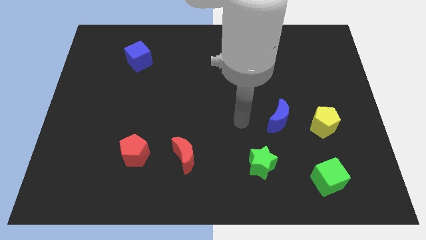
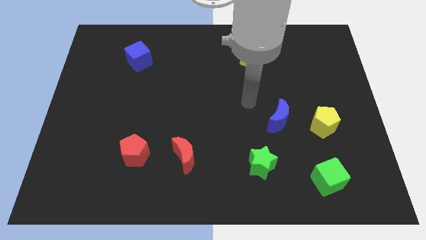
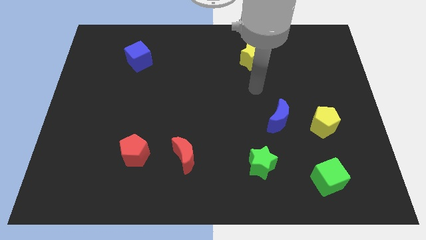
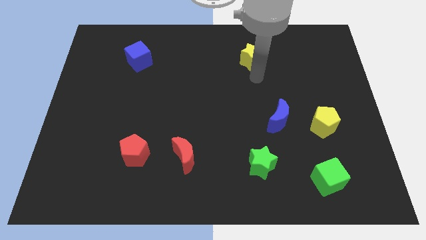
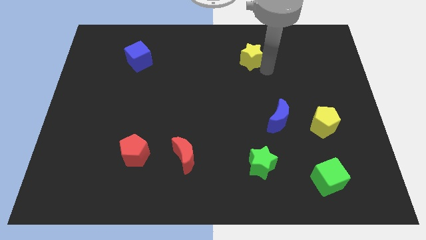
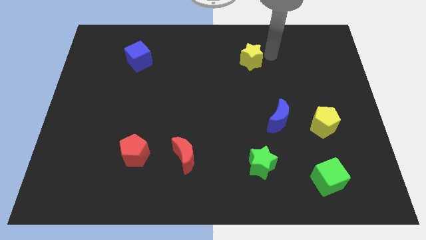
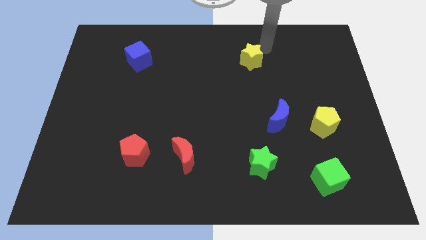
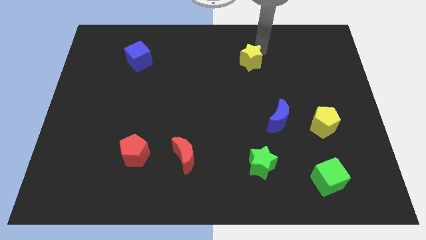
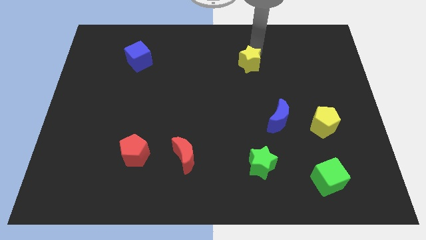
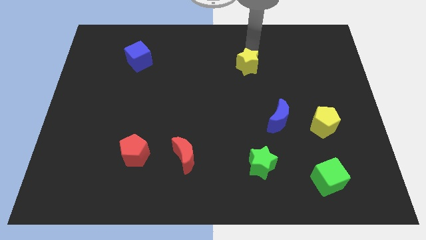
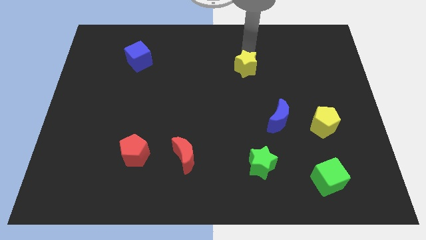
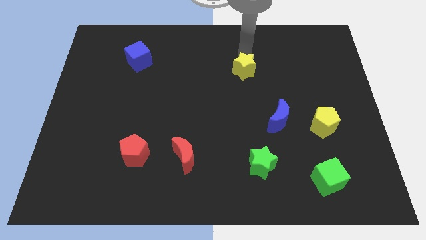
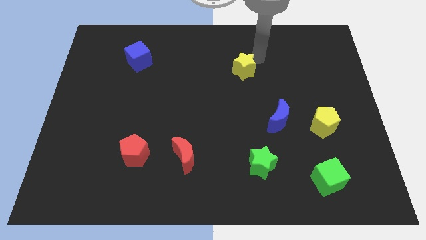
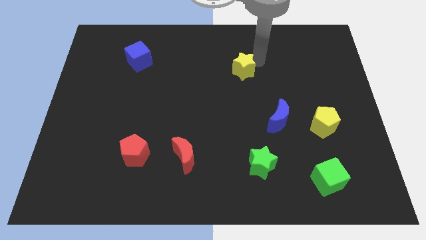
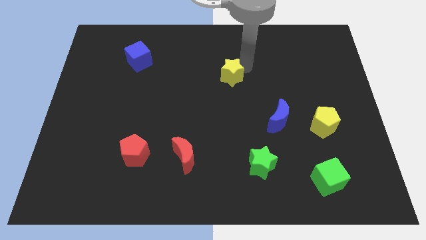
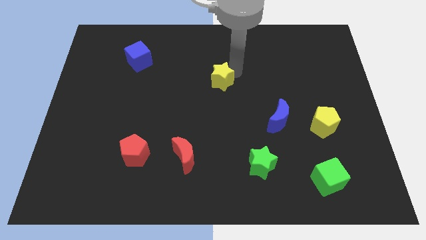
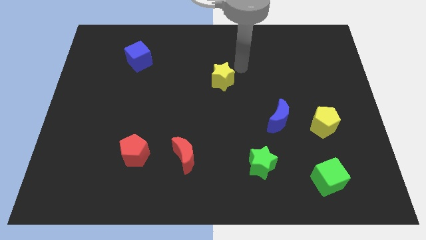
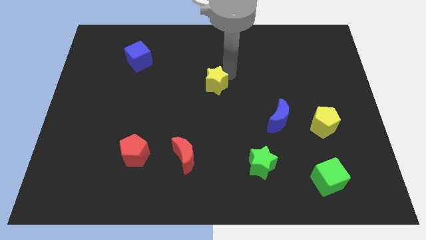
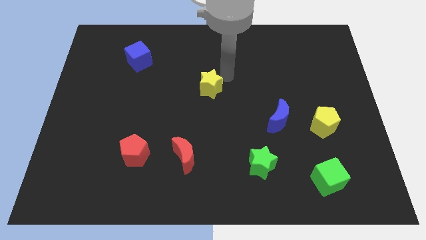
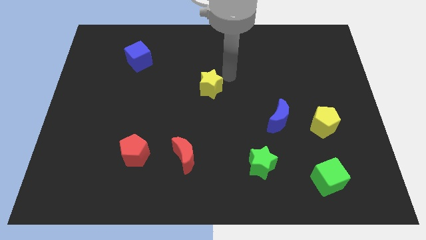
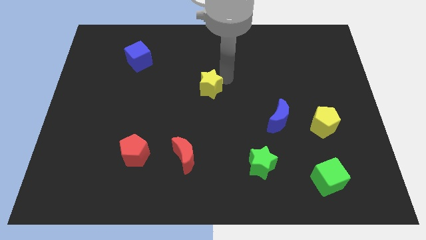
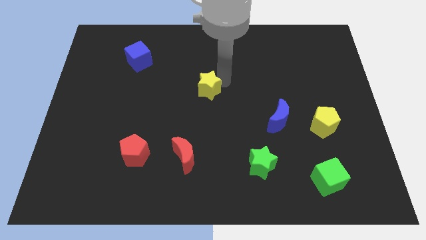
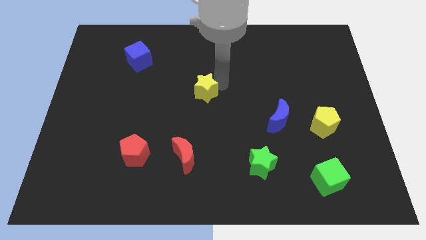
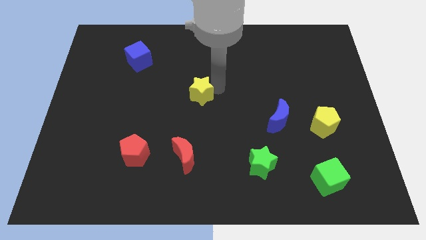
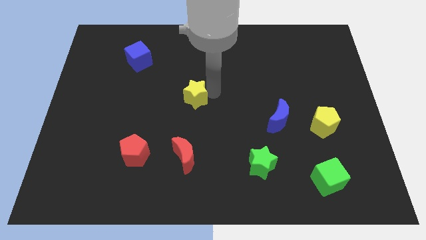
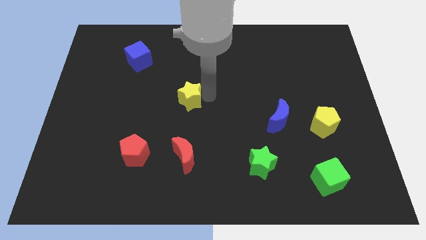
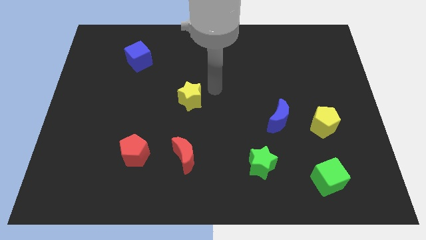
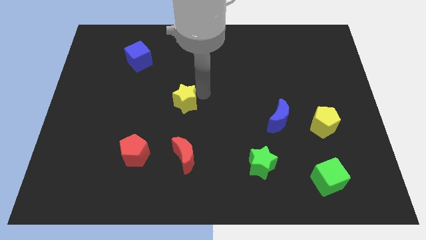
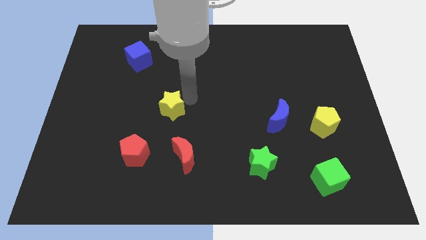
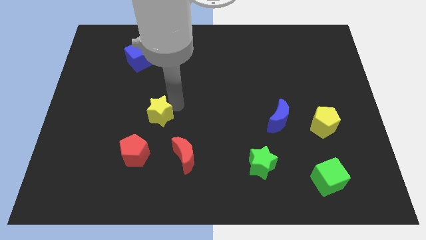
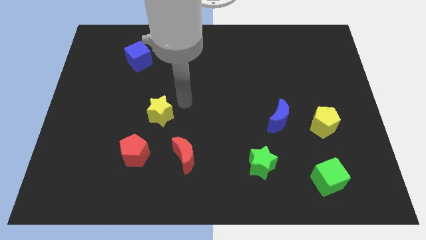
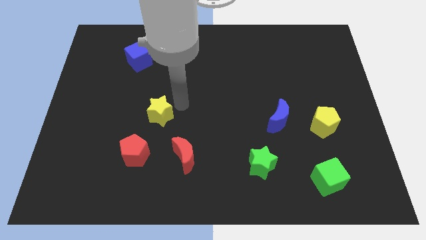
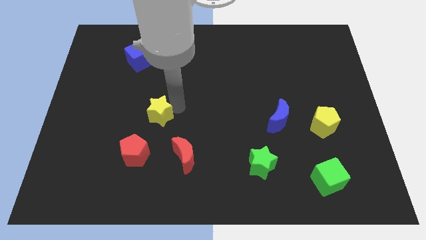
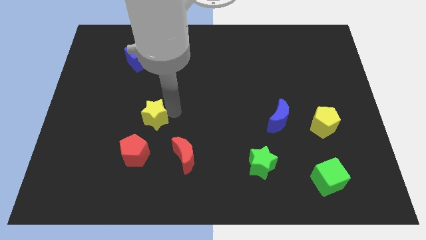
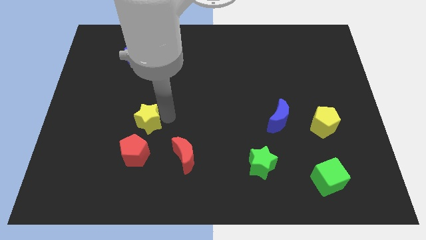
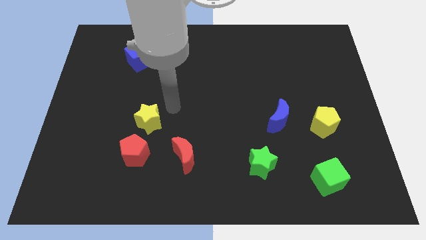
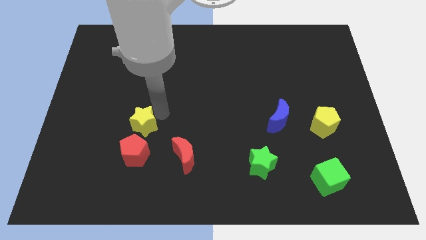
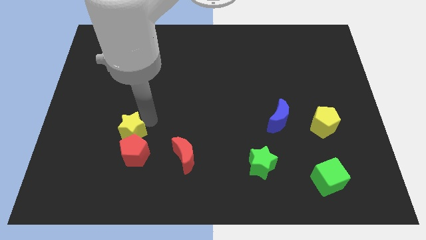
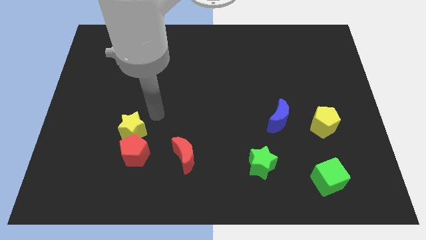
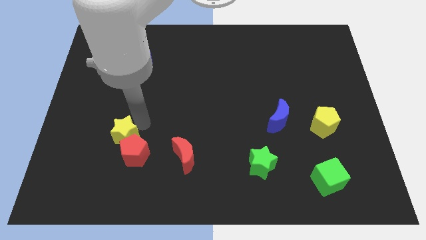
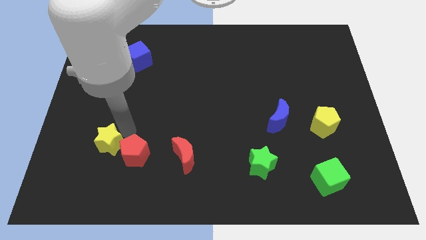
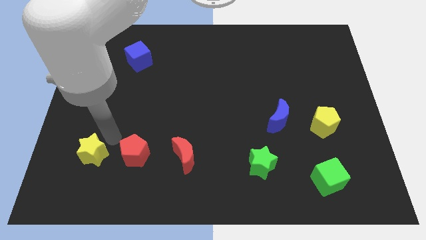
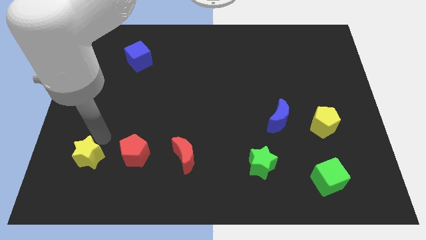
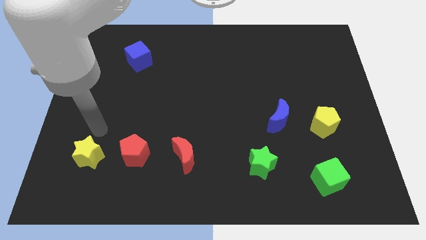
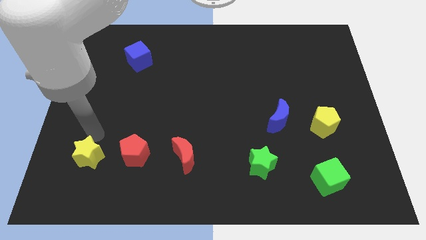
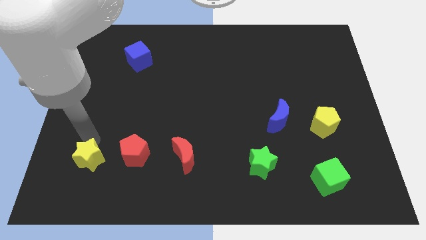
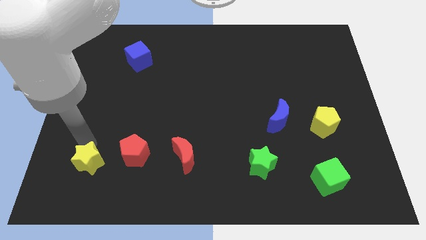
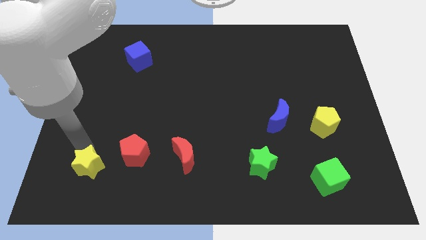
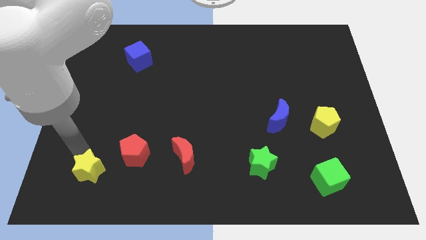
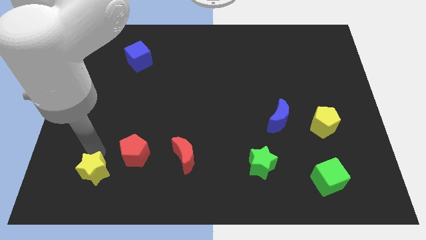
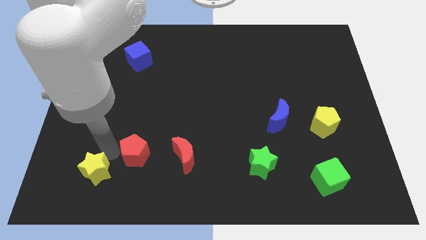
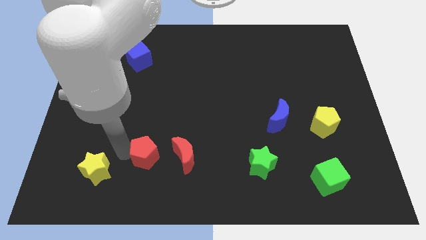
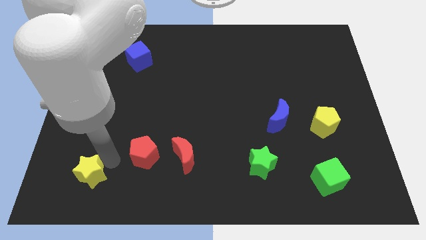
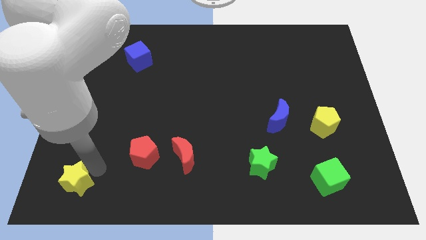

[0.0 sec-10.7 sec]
put the yellow star to the bottom left of the board
